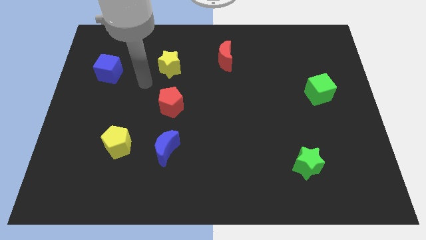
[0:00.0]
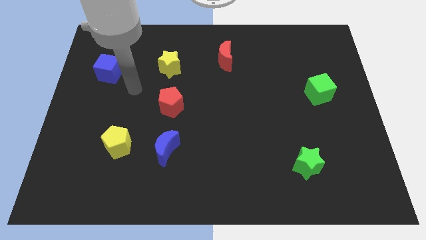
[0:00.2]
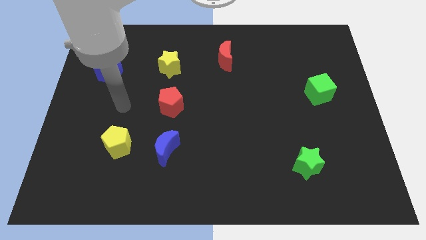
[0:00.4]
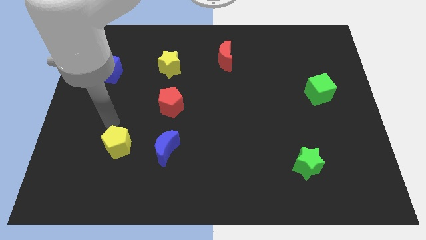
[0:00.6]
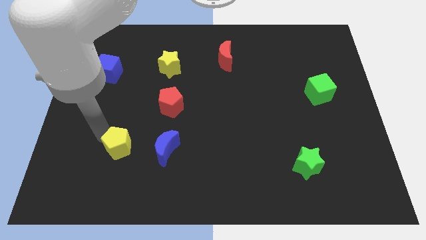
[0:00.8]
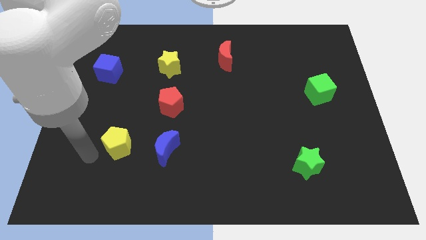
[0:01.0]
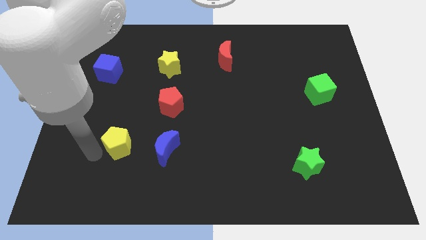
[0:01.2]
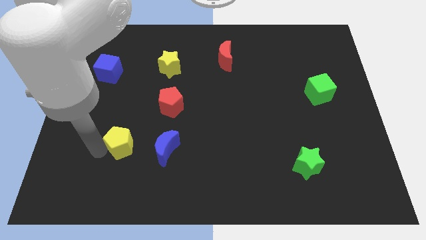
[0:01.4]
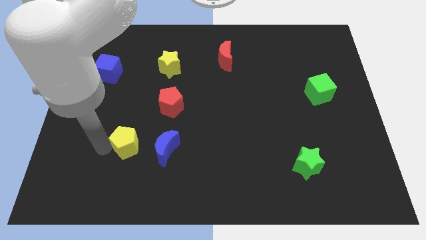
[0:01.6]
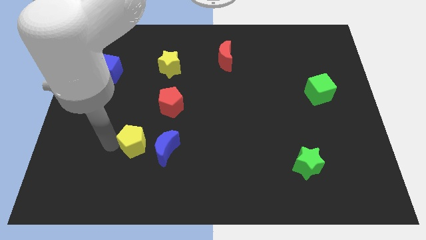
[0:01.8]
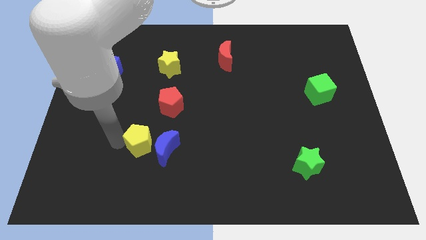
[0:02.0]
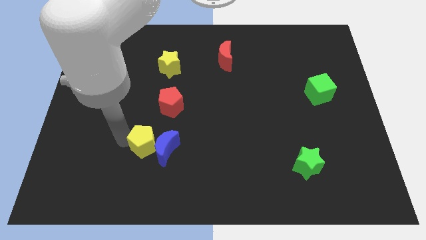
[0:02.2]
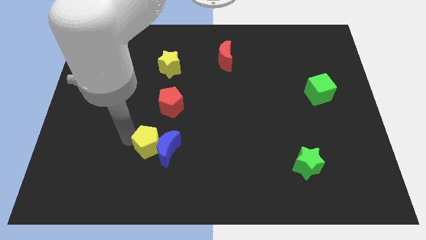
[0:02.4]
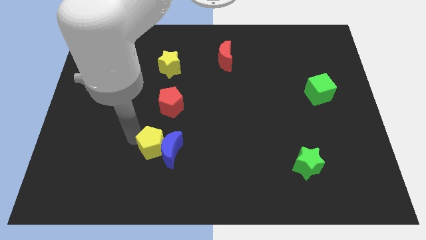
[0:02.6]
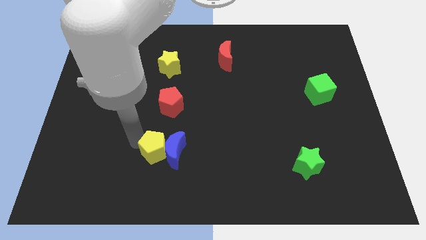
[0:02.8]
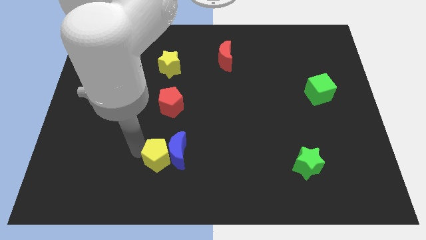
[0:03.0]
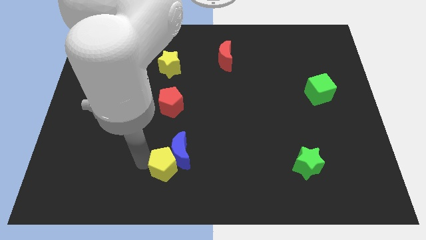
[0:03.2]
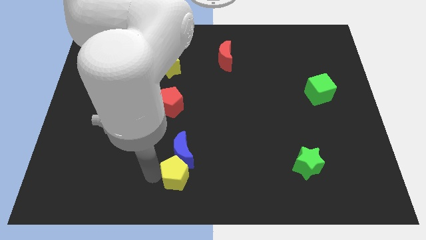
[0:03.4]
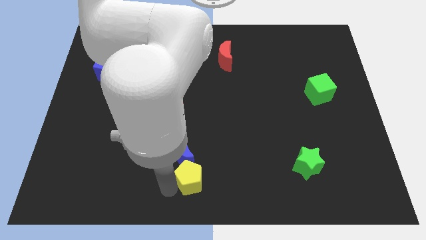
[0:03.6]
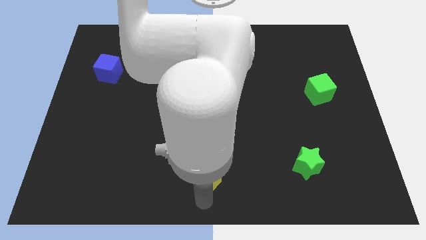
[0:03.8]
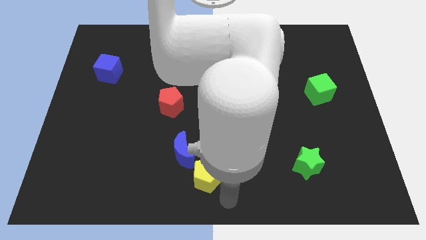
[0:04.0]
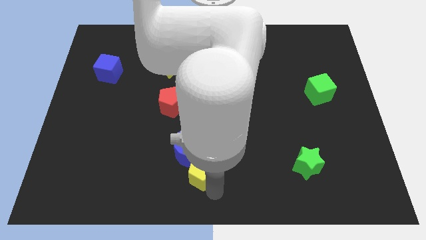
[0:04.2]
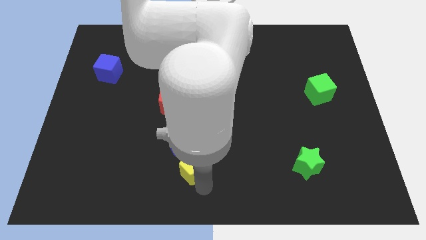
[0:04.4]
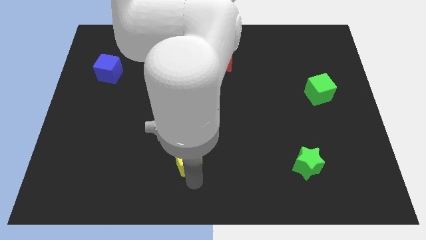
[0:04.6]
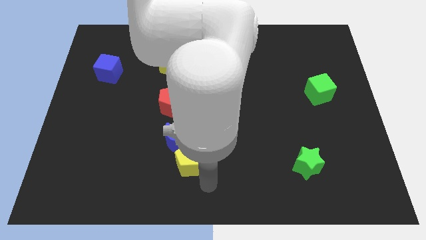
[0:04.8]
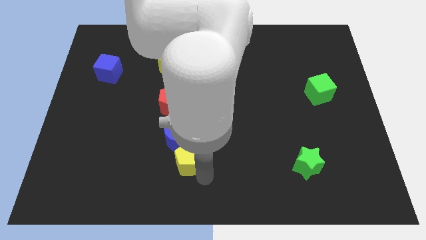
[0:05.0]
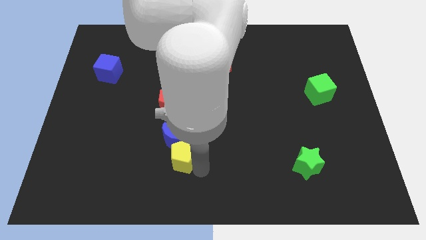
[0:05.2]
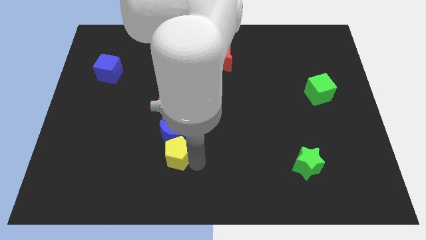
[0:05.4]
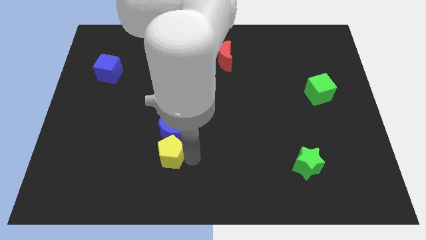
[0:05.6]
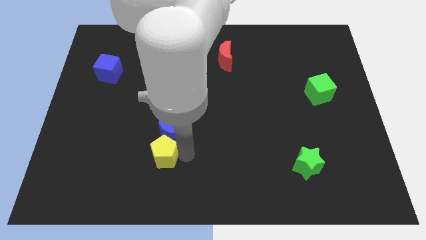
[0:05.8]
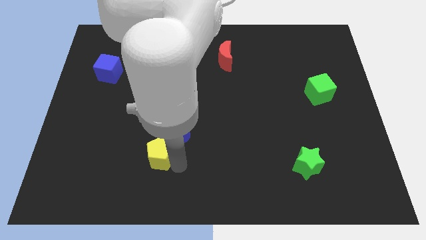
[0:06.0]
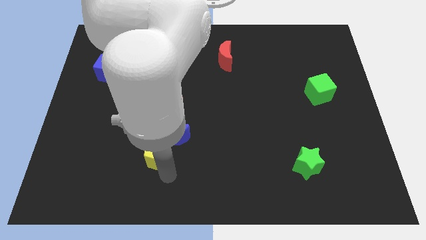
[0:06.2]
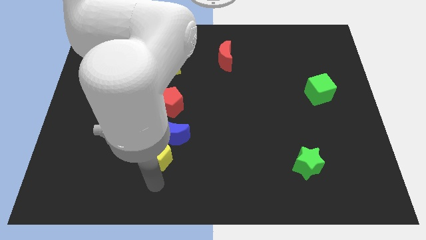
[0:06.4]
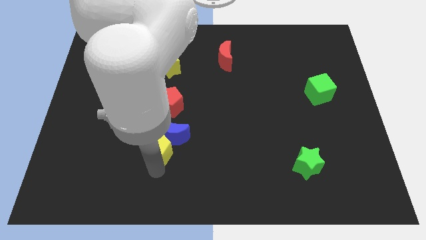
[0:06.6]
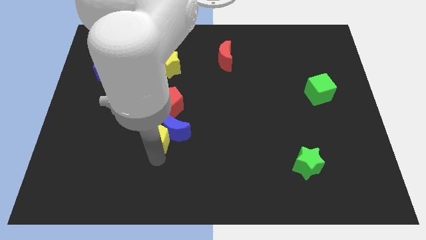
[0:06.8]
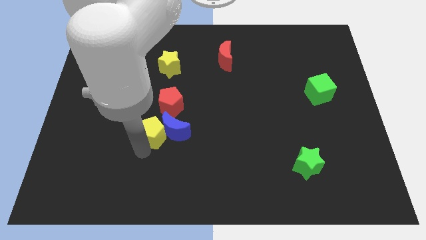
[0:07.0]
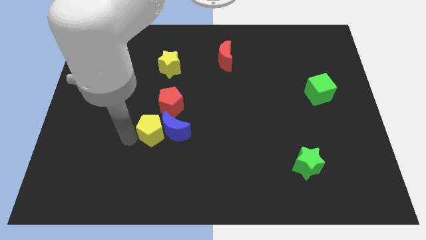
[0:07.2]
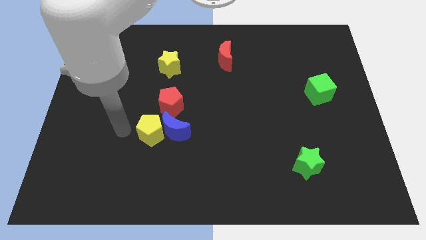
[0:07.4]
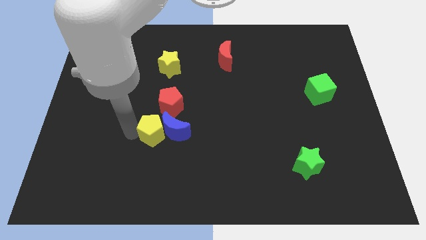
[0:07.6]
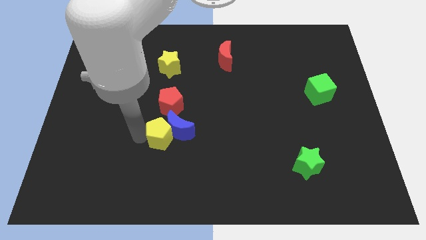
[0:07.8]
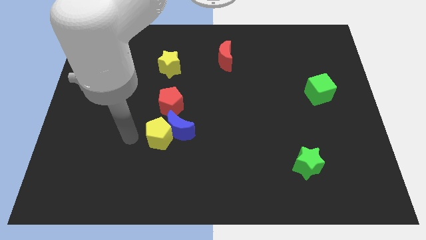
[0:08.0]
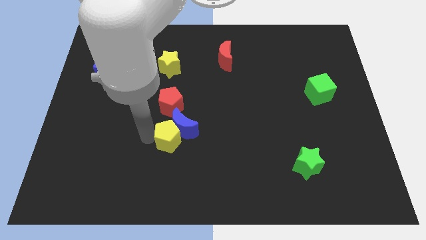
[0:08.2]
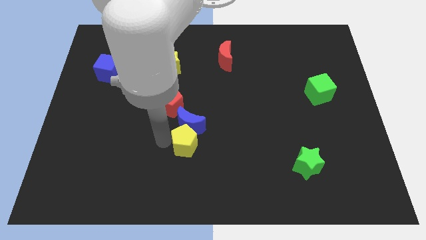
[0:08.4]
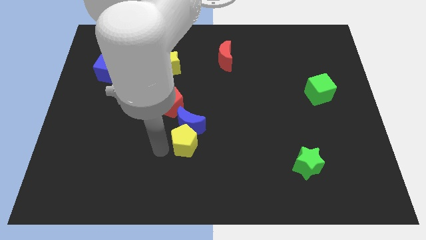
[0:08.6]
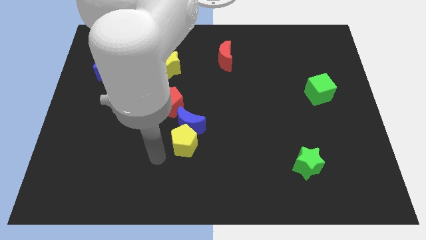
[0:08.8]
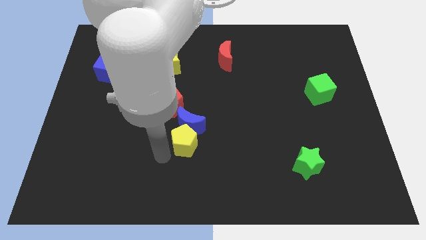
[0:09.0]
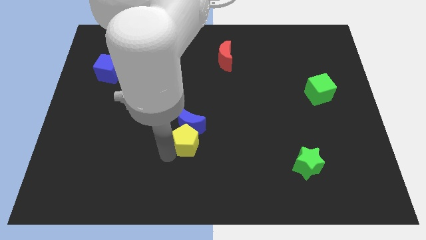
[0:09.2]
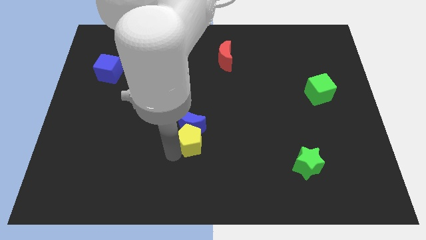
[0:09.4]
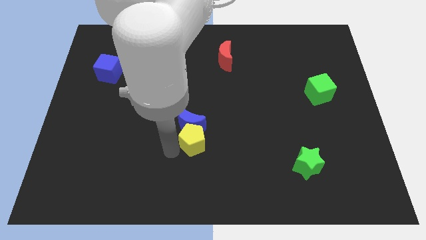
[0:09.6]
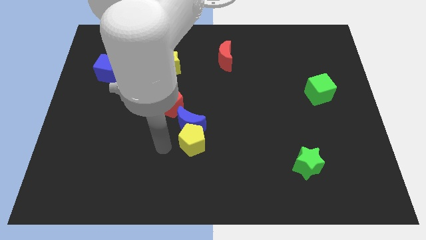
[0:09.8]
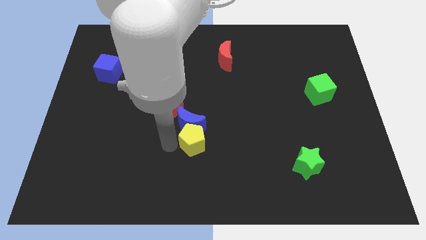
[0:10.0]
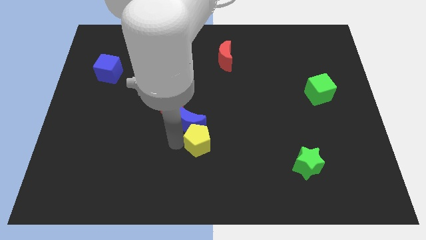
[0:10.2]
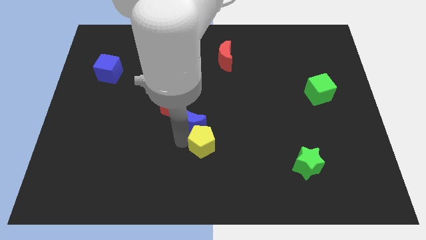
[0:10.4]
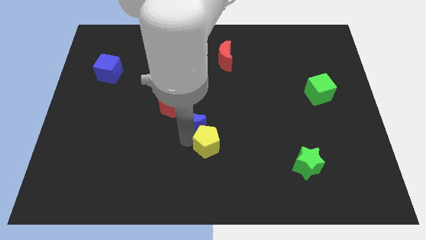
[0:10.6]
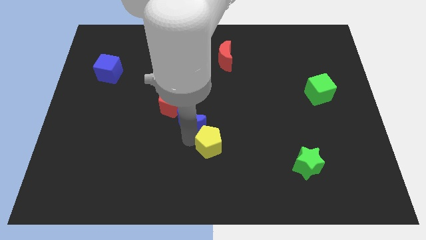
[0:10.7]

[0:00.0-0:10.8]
move the yellow pentagon to the right

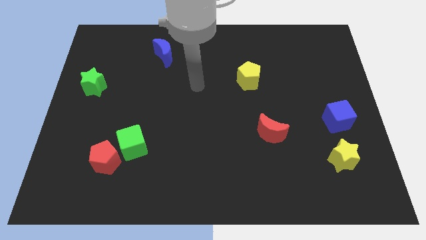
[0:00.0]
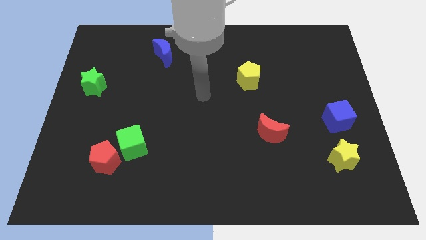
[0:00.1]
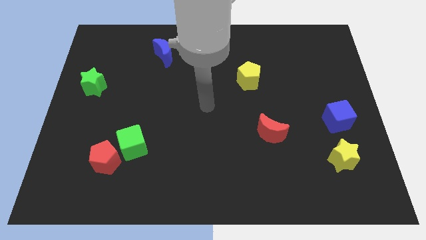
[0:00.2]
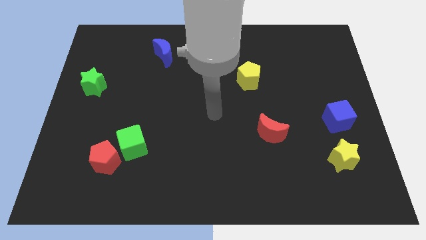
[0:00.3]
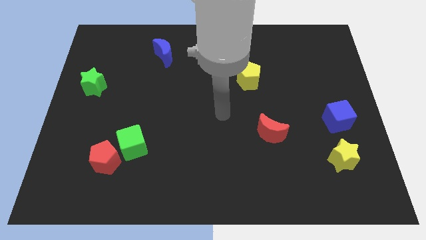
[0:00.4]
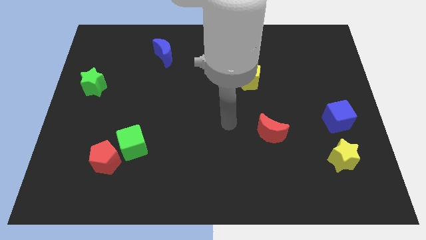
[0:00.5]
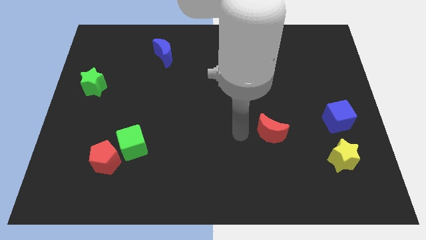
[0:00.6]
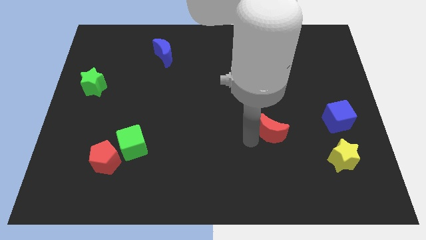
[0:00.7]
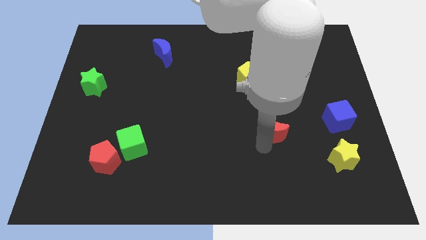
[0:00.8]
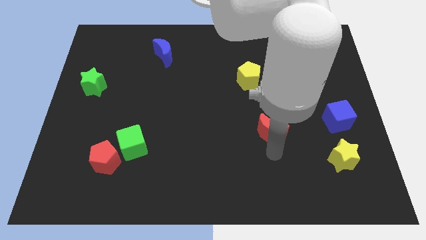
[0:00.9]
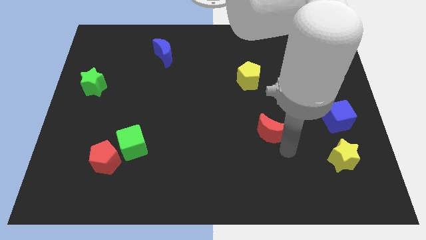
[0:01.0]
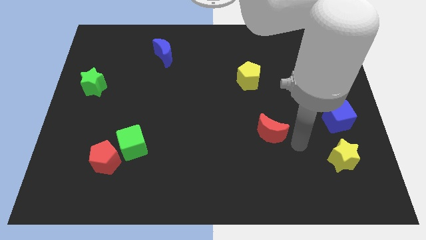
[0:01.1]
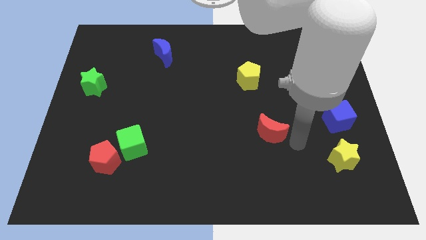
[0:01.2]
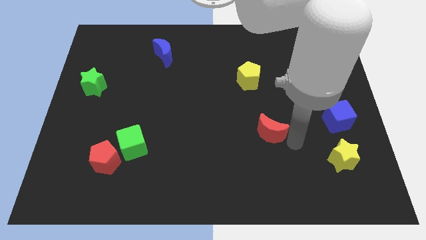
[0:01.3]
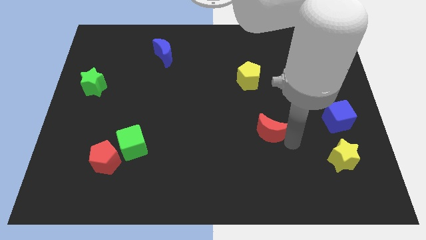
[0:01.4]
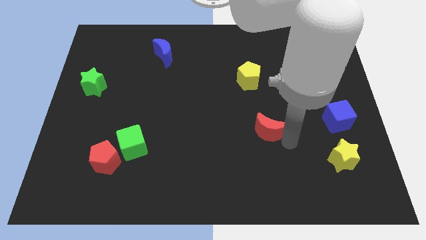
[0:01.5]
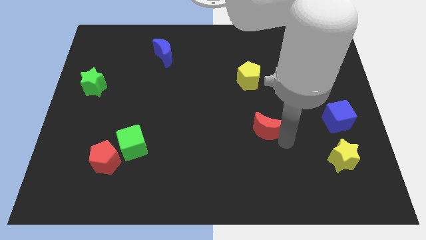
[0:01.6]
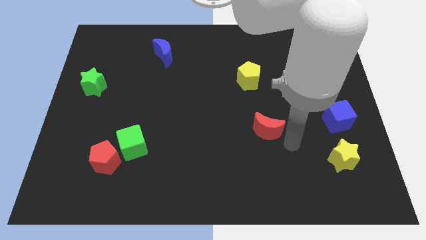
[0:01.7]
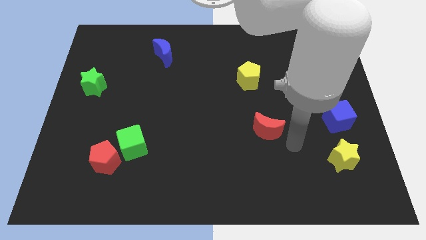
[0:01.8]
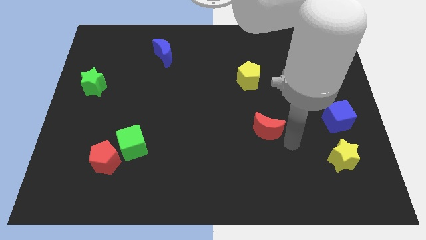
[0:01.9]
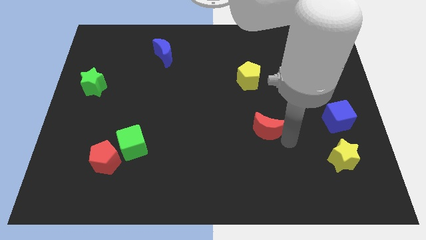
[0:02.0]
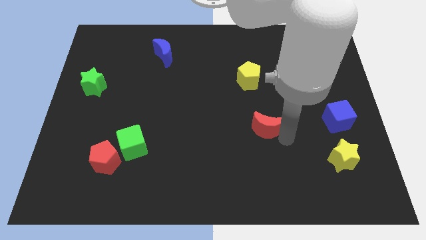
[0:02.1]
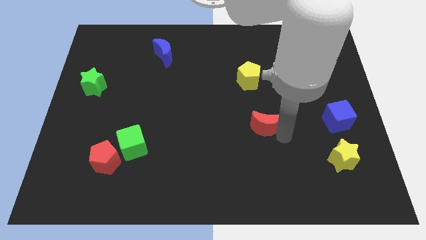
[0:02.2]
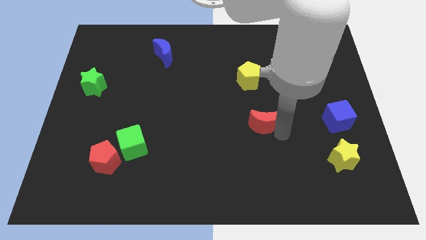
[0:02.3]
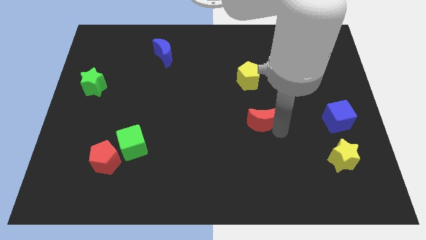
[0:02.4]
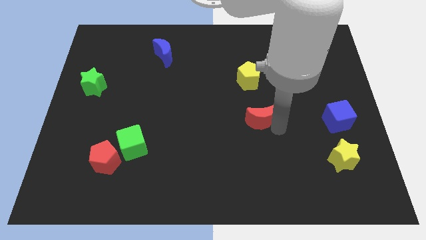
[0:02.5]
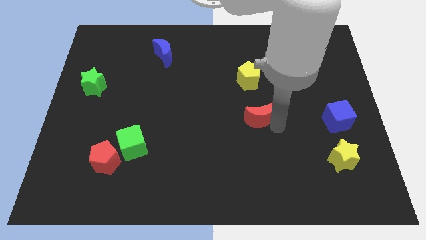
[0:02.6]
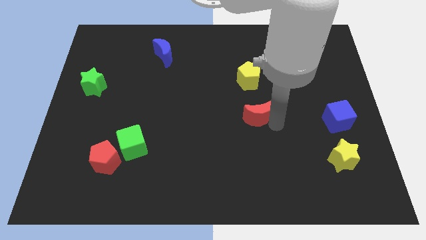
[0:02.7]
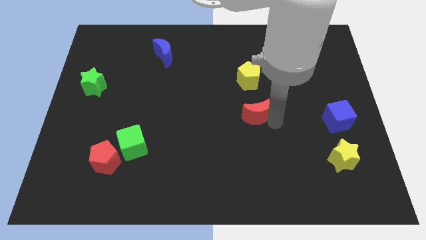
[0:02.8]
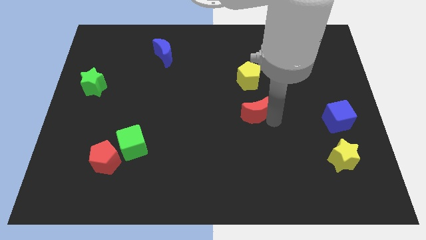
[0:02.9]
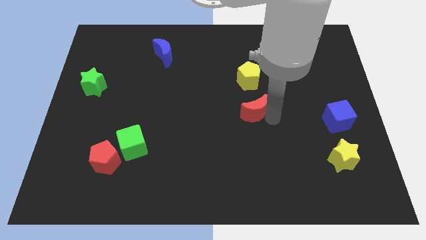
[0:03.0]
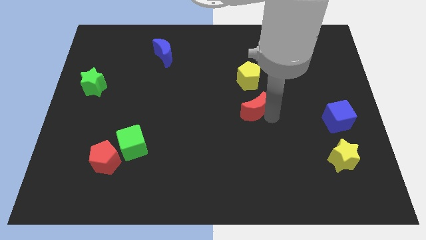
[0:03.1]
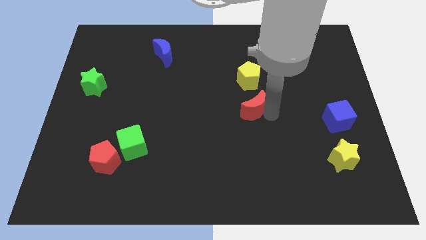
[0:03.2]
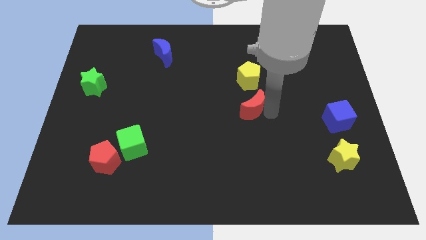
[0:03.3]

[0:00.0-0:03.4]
push the red moon up and left diagonally somewhat
